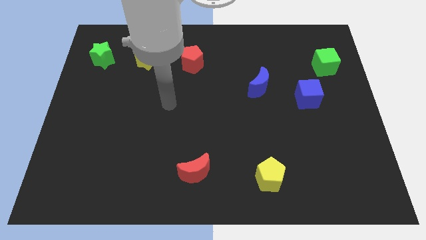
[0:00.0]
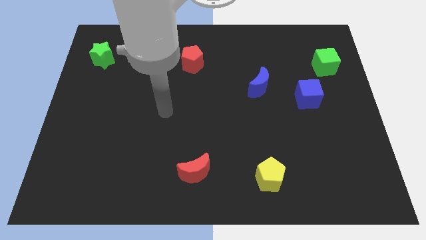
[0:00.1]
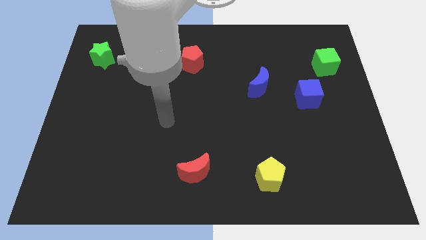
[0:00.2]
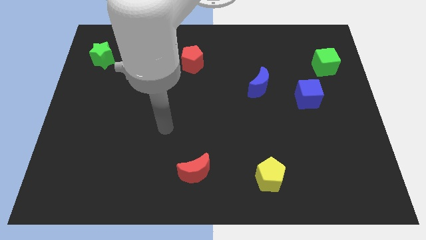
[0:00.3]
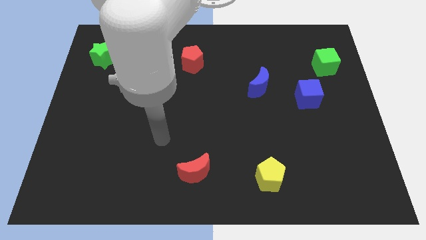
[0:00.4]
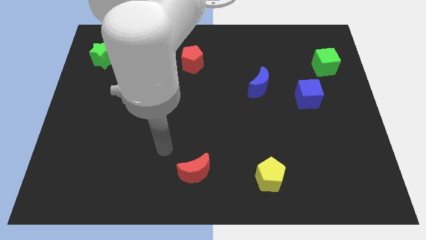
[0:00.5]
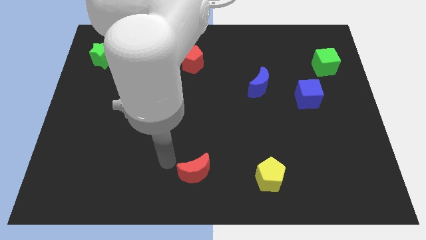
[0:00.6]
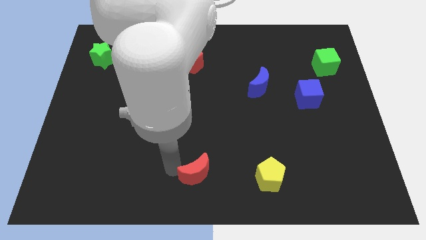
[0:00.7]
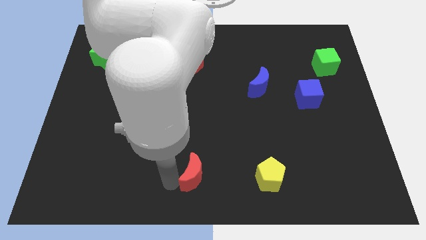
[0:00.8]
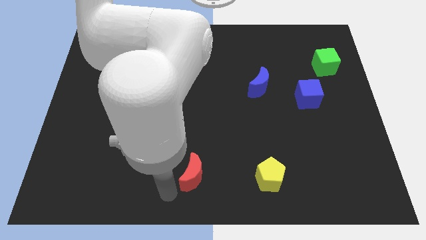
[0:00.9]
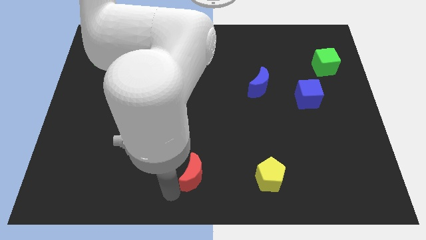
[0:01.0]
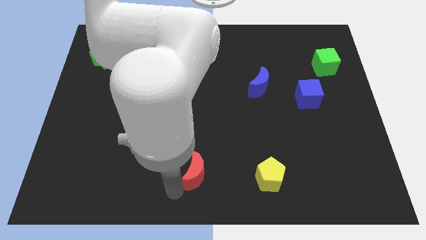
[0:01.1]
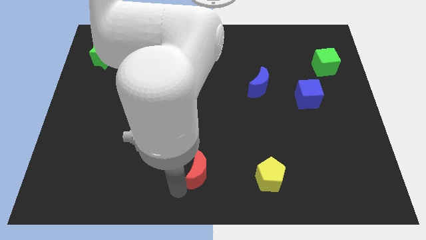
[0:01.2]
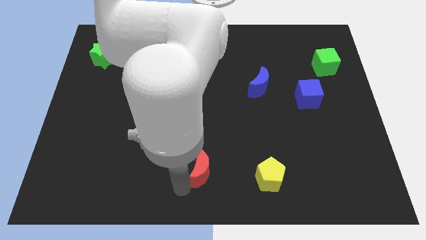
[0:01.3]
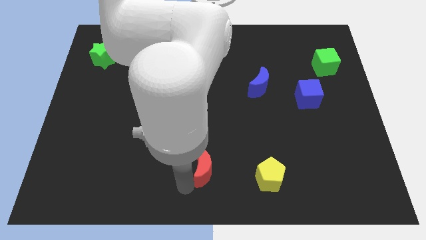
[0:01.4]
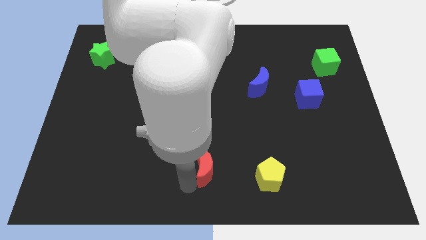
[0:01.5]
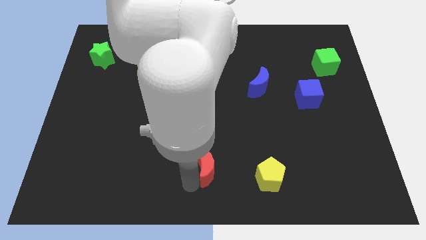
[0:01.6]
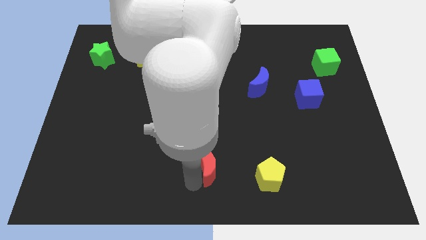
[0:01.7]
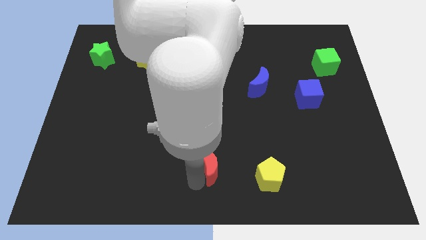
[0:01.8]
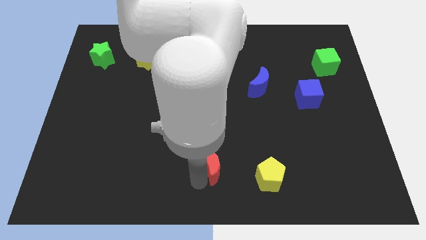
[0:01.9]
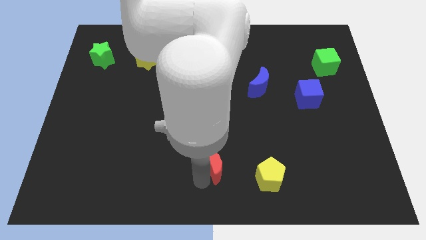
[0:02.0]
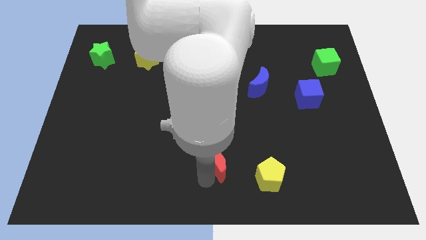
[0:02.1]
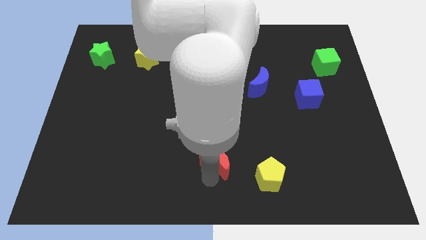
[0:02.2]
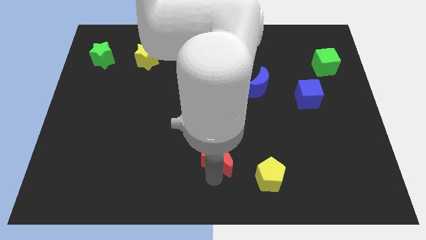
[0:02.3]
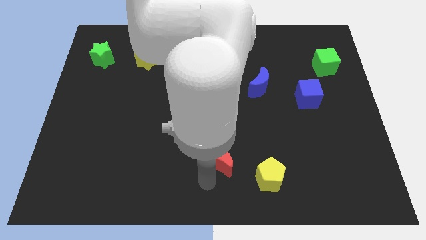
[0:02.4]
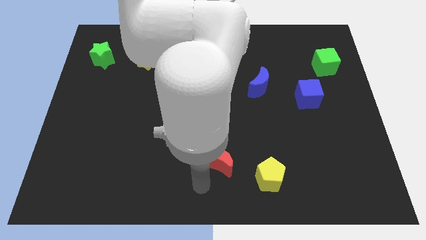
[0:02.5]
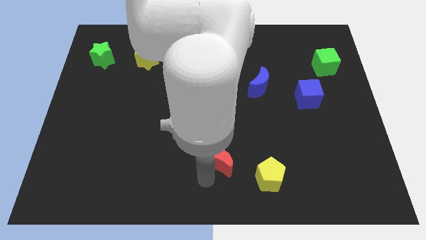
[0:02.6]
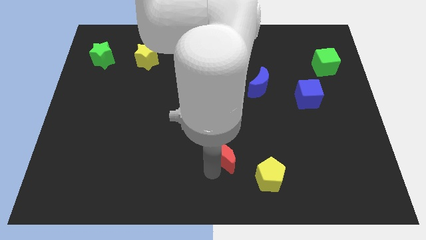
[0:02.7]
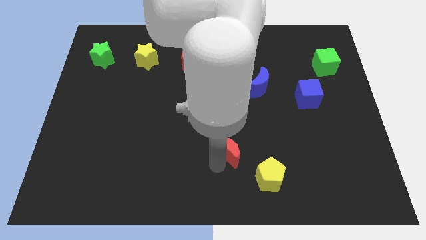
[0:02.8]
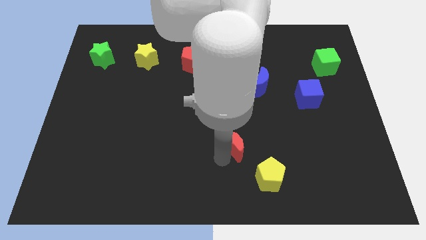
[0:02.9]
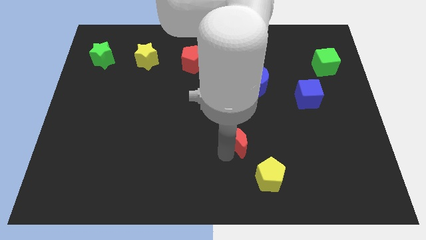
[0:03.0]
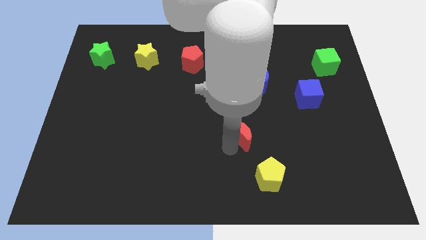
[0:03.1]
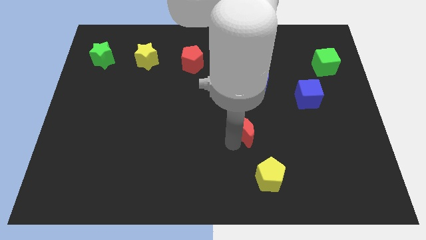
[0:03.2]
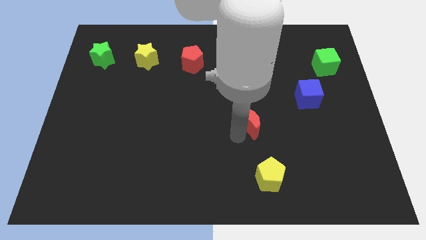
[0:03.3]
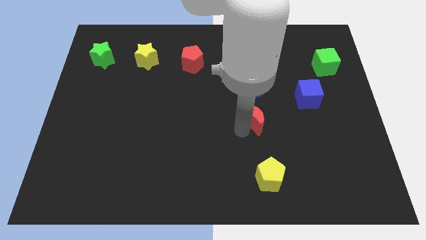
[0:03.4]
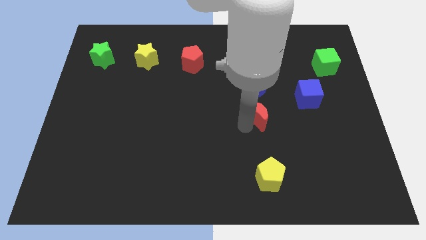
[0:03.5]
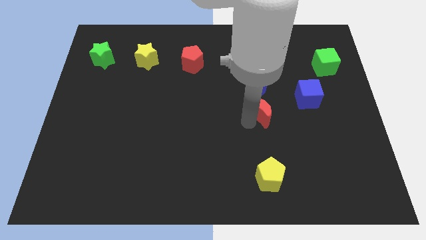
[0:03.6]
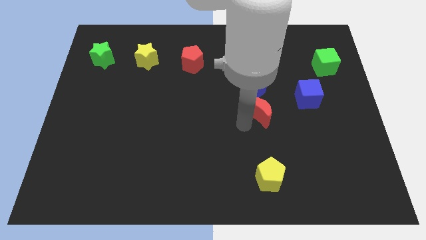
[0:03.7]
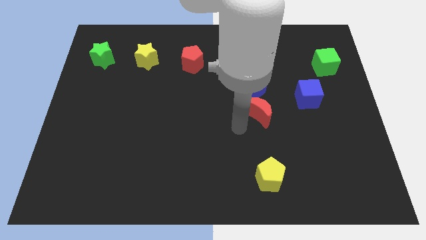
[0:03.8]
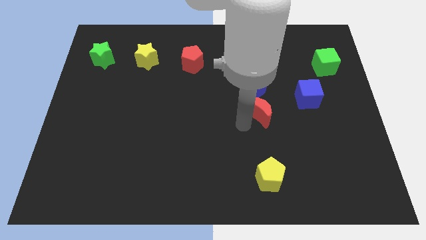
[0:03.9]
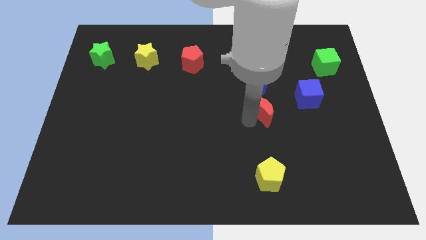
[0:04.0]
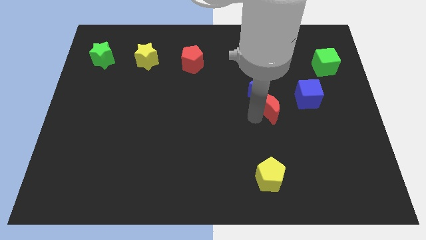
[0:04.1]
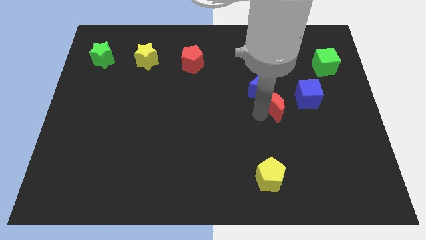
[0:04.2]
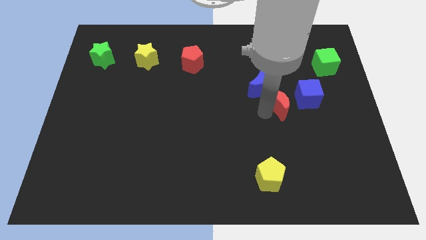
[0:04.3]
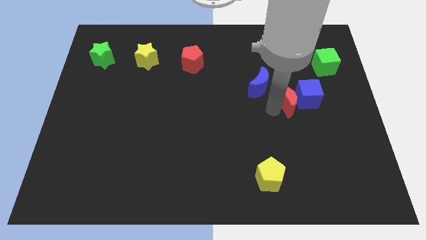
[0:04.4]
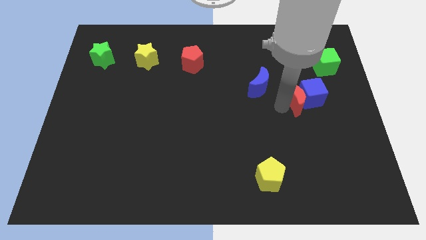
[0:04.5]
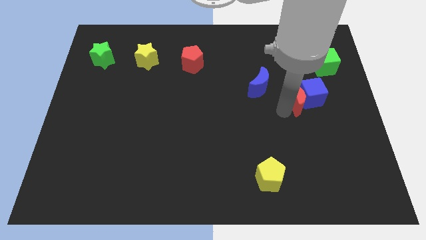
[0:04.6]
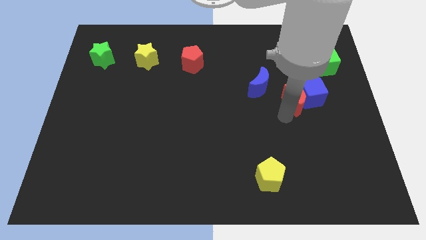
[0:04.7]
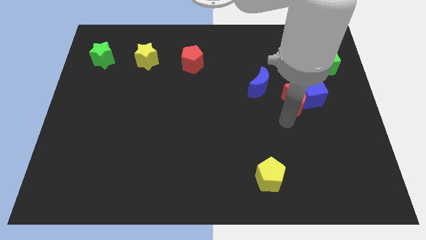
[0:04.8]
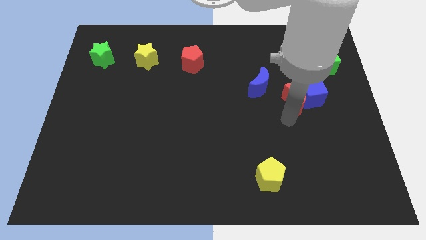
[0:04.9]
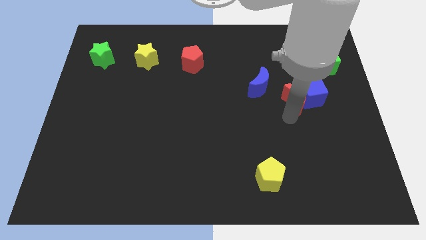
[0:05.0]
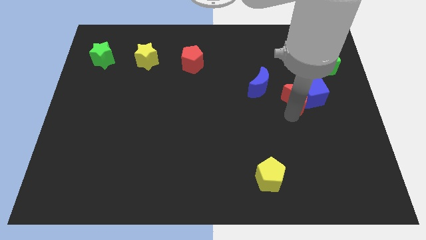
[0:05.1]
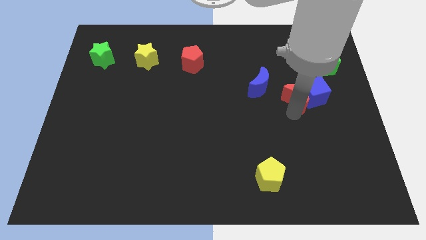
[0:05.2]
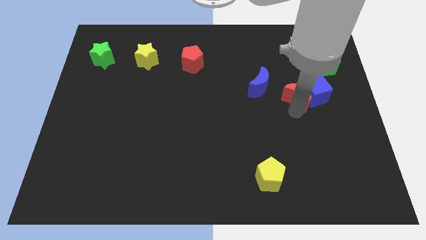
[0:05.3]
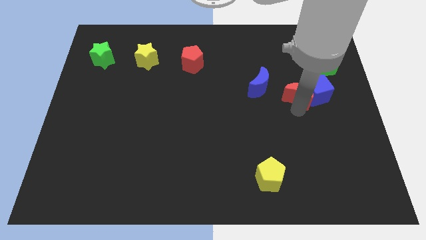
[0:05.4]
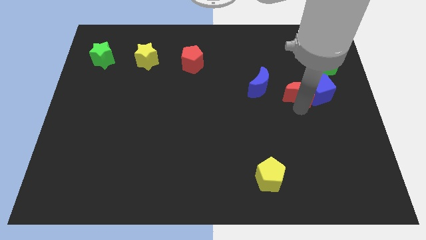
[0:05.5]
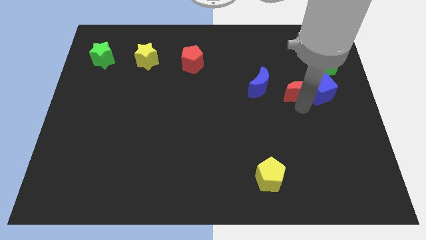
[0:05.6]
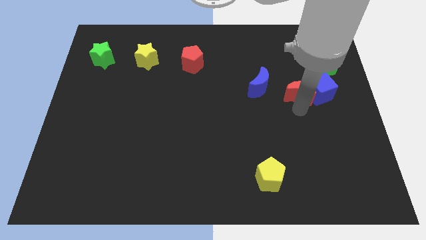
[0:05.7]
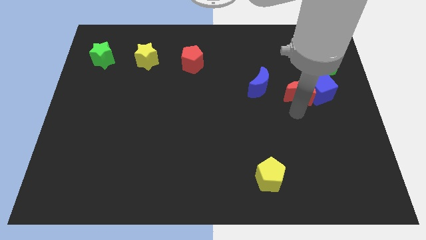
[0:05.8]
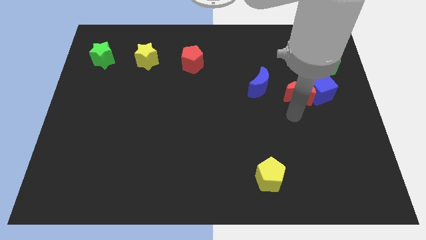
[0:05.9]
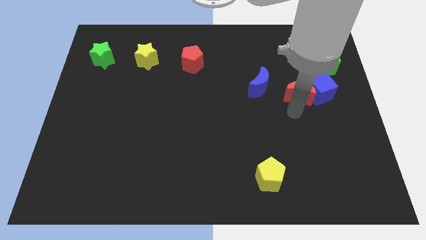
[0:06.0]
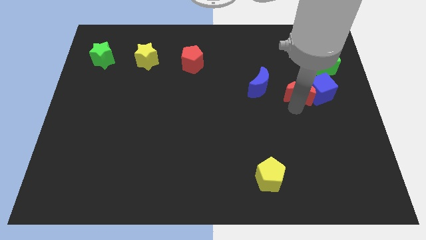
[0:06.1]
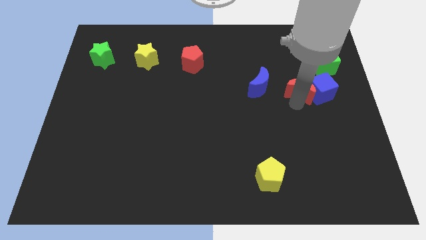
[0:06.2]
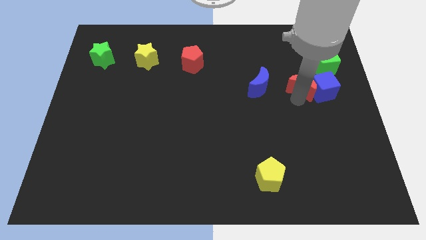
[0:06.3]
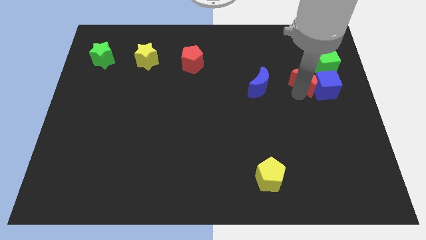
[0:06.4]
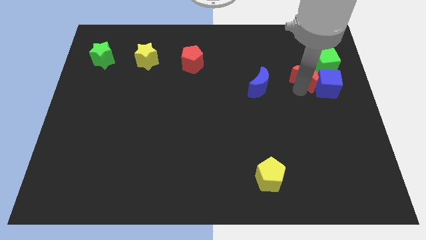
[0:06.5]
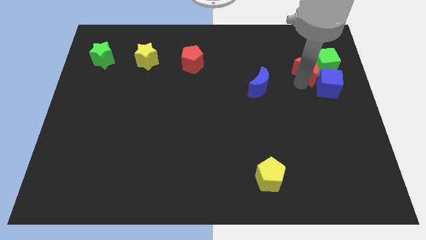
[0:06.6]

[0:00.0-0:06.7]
put the red moon close to the green cube
